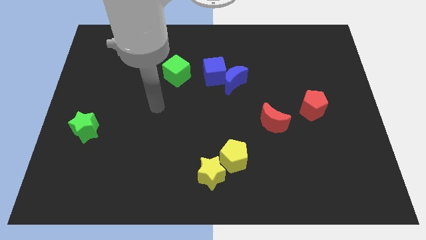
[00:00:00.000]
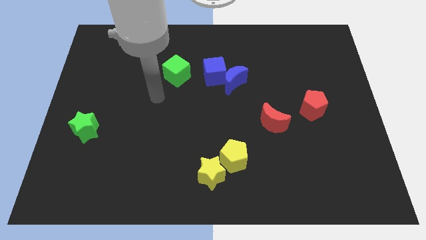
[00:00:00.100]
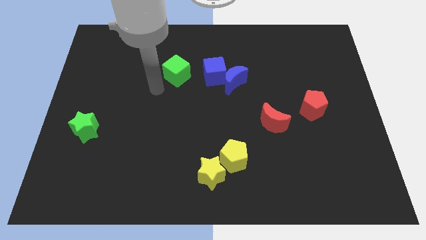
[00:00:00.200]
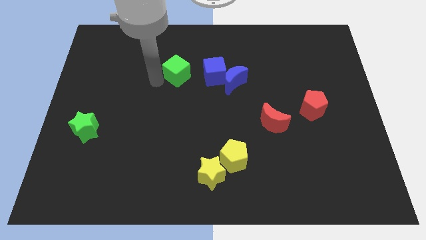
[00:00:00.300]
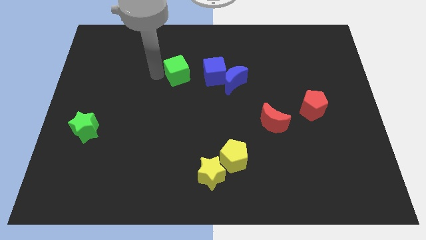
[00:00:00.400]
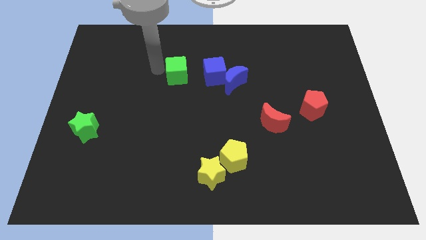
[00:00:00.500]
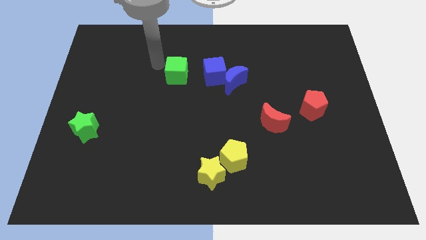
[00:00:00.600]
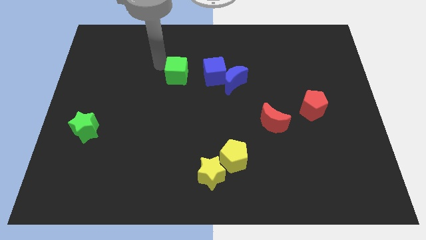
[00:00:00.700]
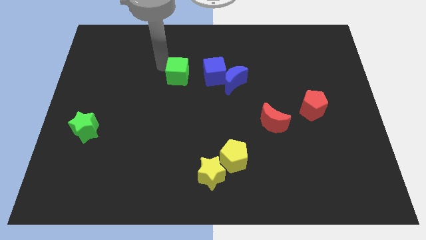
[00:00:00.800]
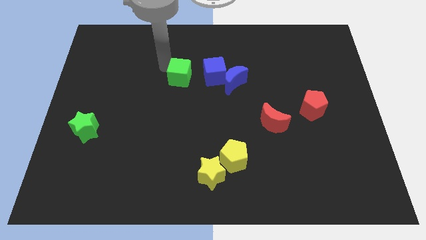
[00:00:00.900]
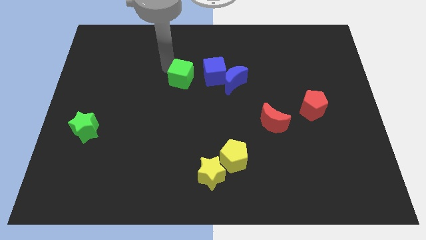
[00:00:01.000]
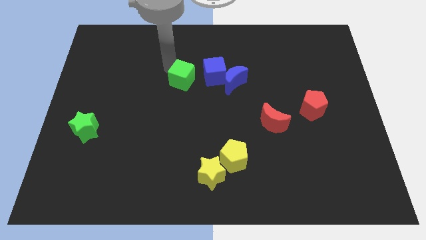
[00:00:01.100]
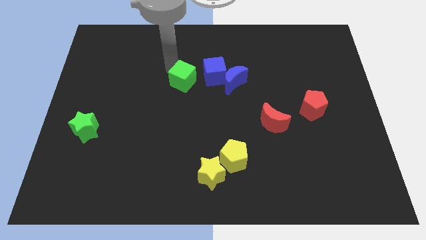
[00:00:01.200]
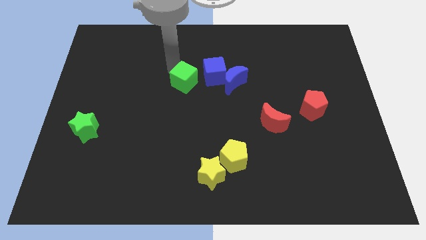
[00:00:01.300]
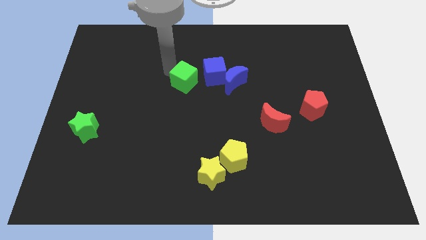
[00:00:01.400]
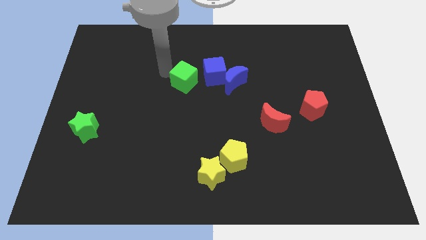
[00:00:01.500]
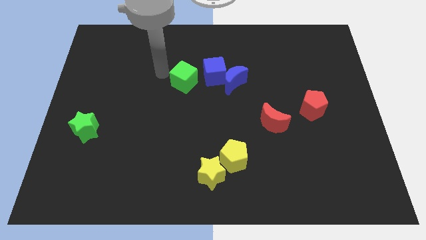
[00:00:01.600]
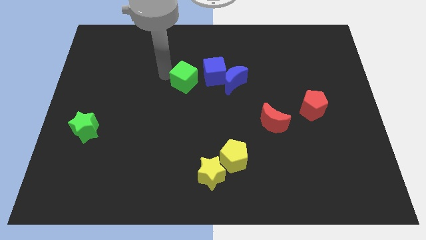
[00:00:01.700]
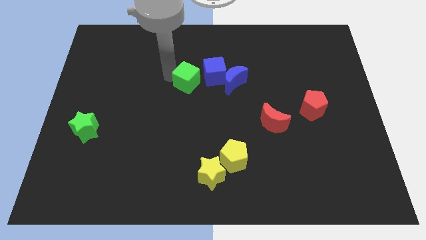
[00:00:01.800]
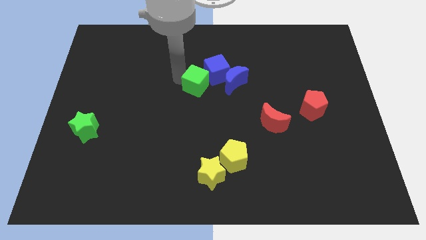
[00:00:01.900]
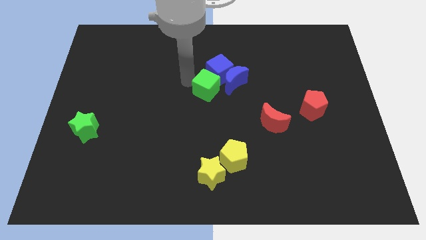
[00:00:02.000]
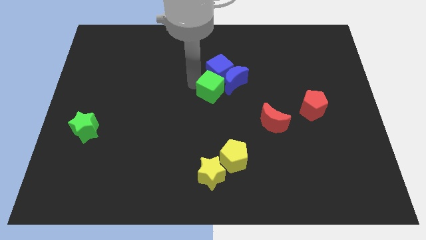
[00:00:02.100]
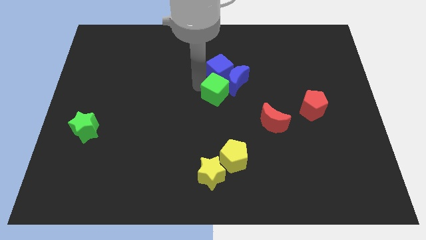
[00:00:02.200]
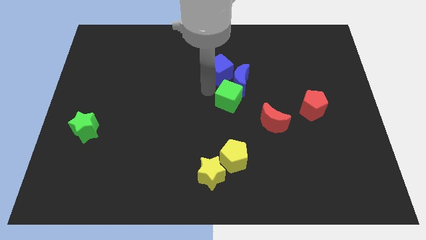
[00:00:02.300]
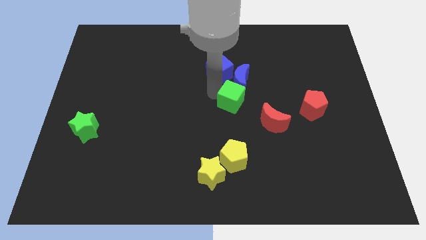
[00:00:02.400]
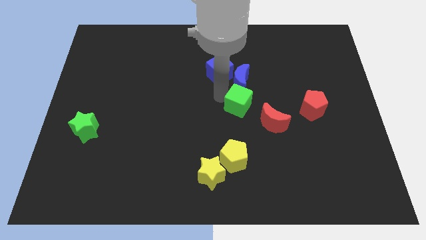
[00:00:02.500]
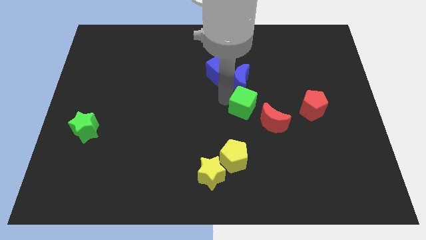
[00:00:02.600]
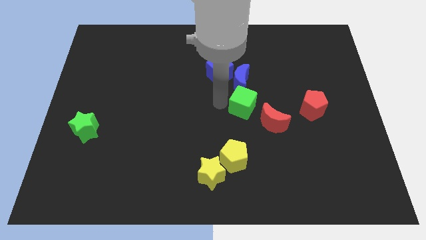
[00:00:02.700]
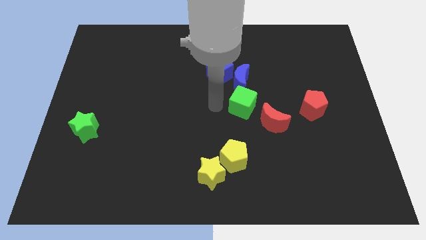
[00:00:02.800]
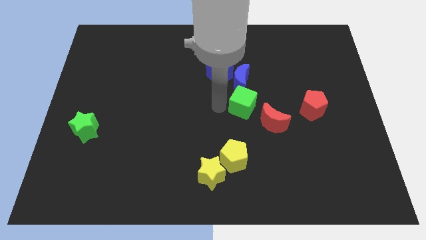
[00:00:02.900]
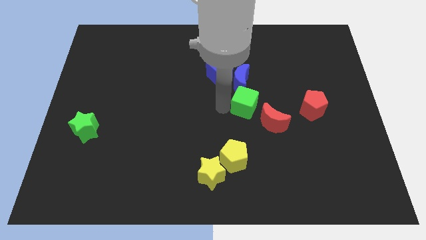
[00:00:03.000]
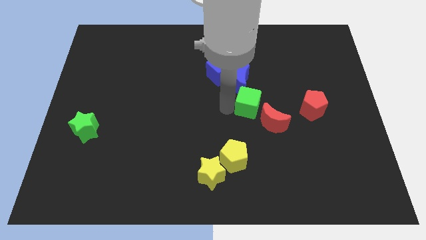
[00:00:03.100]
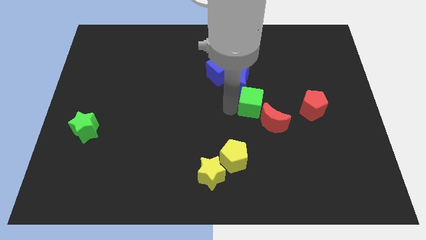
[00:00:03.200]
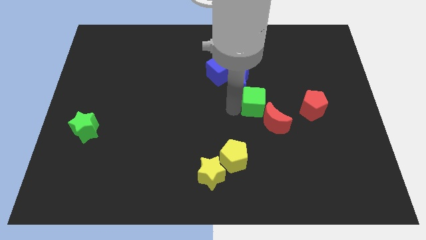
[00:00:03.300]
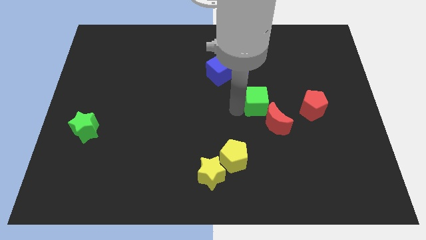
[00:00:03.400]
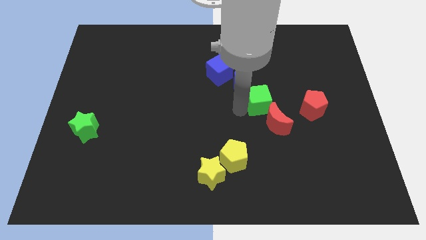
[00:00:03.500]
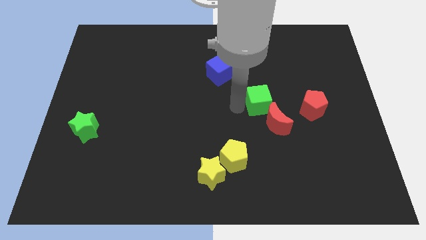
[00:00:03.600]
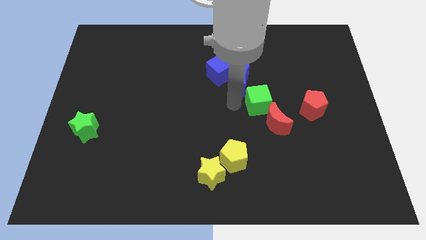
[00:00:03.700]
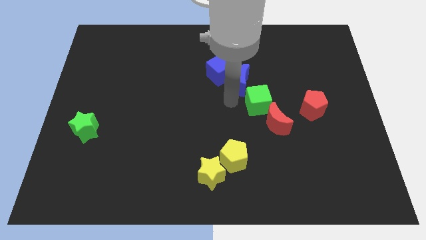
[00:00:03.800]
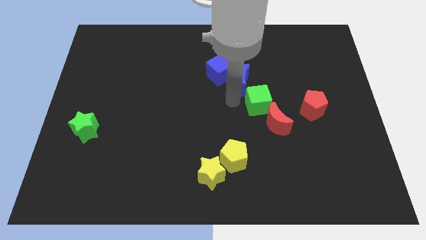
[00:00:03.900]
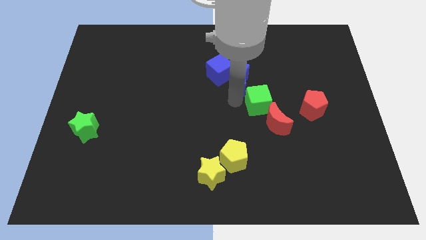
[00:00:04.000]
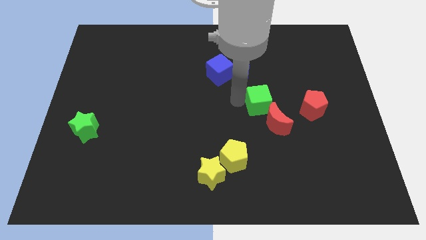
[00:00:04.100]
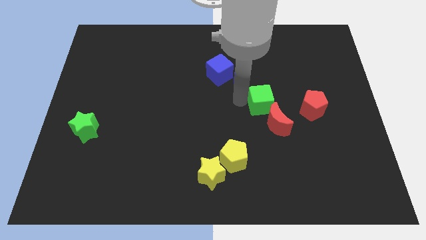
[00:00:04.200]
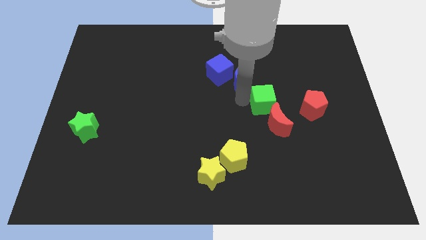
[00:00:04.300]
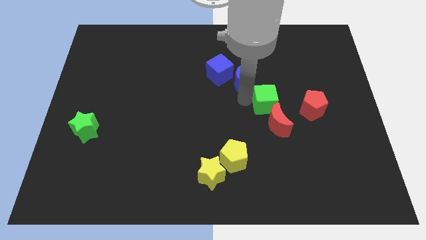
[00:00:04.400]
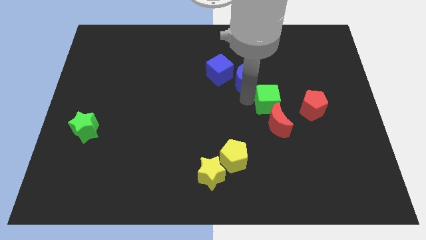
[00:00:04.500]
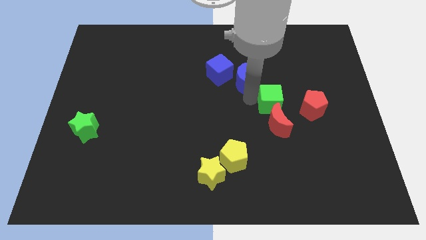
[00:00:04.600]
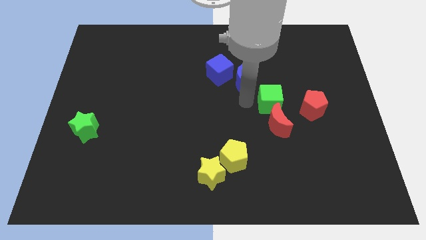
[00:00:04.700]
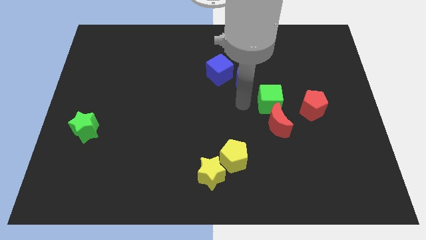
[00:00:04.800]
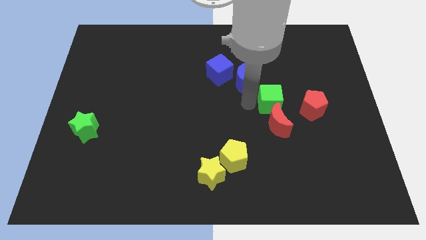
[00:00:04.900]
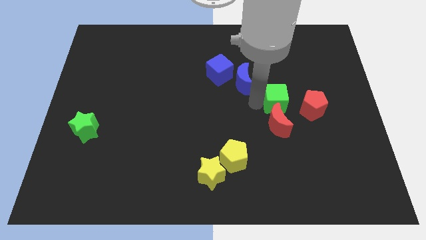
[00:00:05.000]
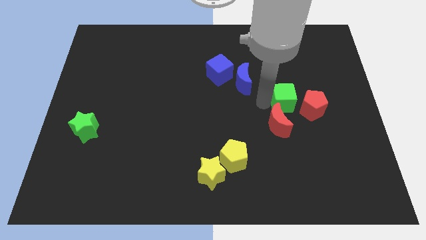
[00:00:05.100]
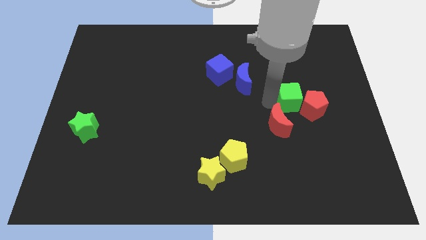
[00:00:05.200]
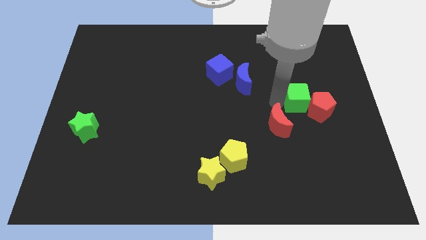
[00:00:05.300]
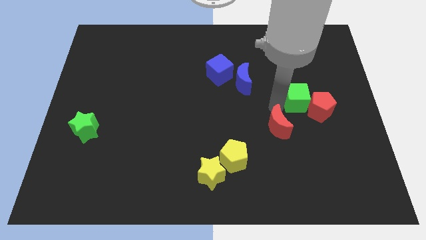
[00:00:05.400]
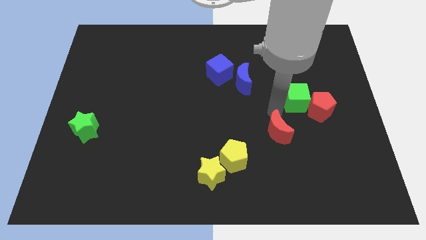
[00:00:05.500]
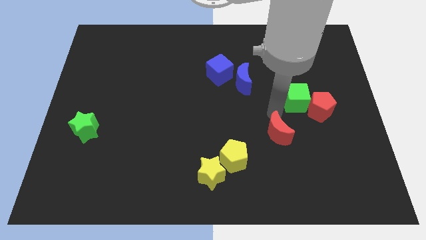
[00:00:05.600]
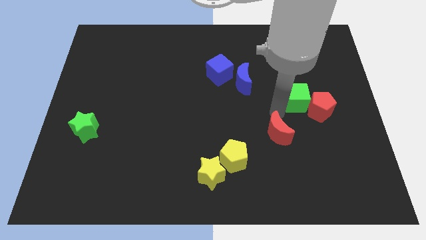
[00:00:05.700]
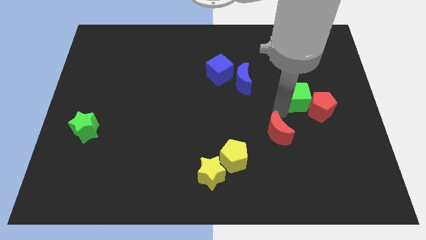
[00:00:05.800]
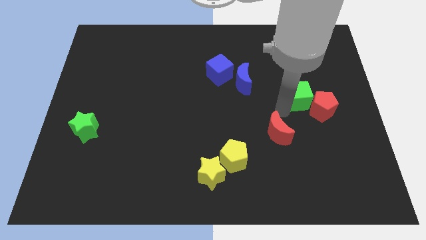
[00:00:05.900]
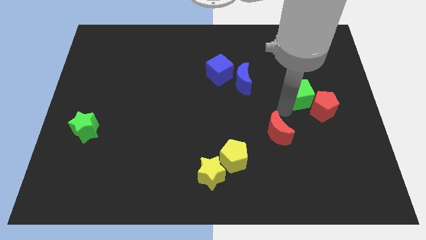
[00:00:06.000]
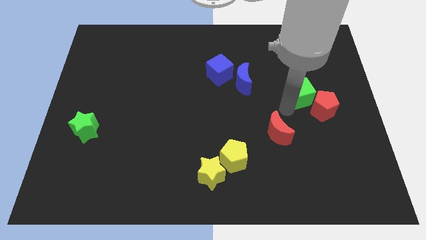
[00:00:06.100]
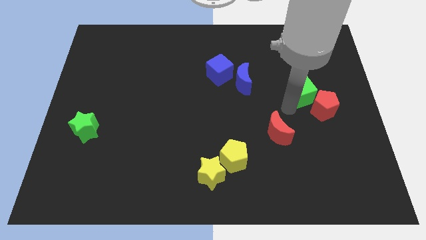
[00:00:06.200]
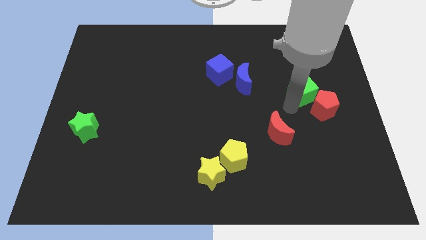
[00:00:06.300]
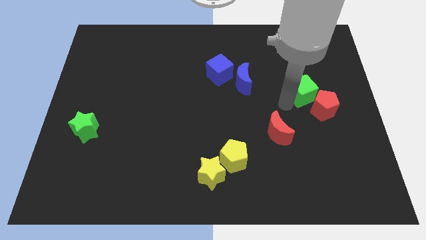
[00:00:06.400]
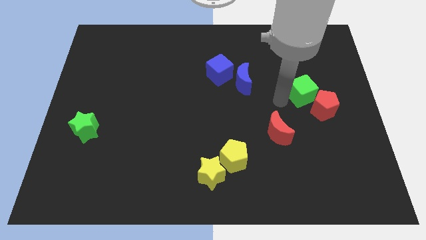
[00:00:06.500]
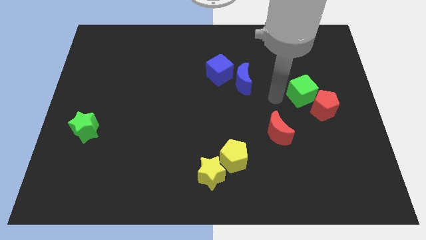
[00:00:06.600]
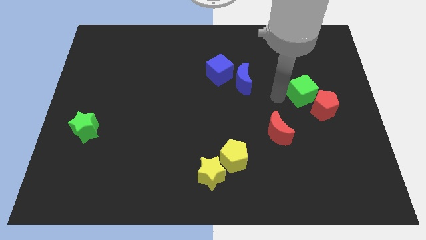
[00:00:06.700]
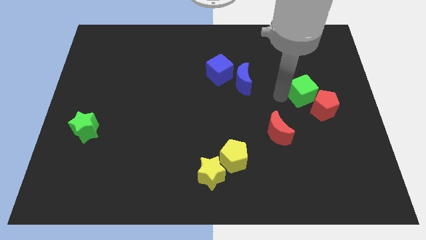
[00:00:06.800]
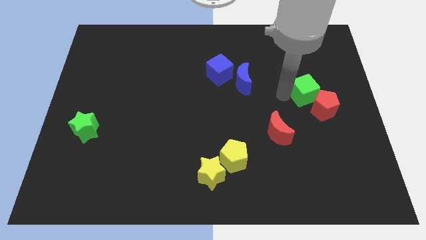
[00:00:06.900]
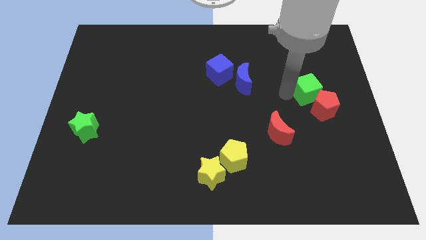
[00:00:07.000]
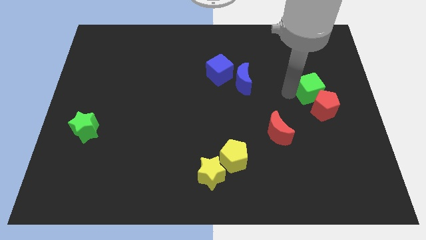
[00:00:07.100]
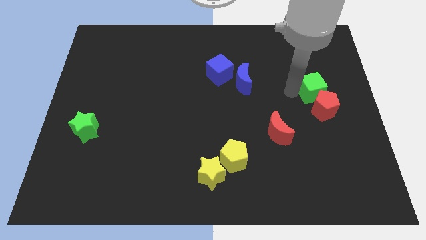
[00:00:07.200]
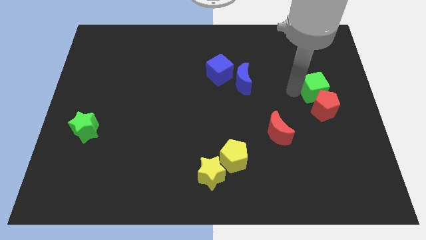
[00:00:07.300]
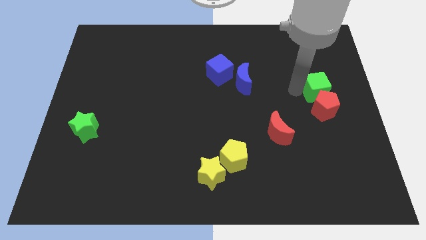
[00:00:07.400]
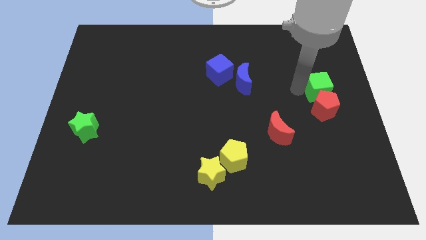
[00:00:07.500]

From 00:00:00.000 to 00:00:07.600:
put the green cube to the right side
